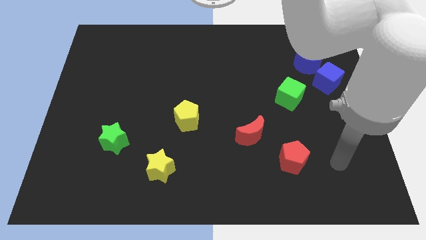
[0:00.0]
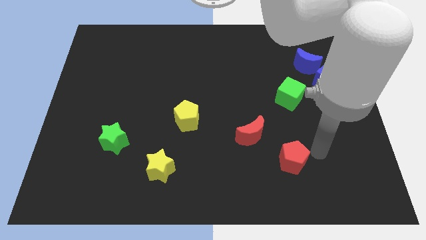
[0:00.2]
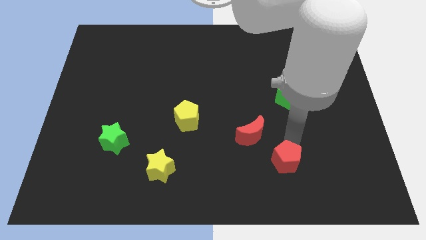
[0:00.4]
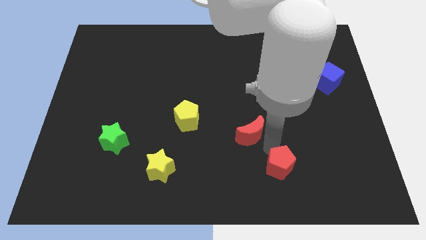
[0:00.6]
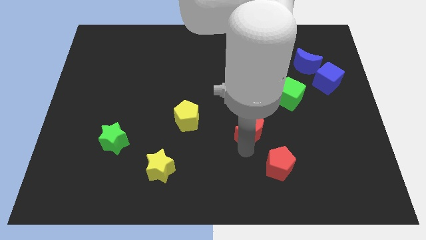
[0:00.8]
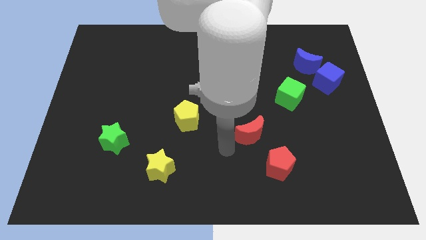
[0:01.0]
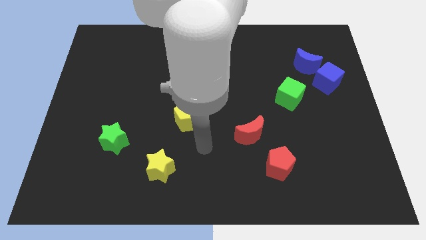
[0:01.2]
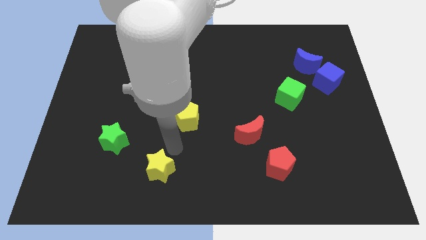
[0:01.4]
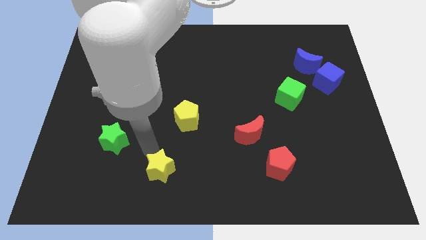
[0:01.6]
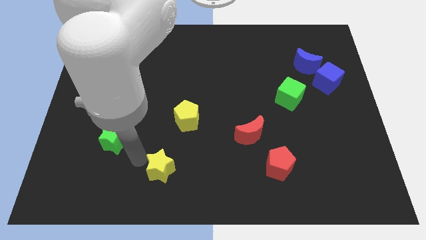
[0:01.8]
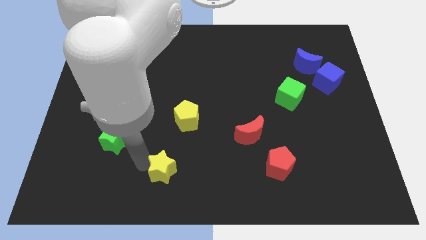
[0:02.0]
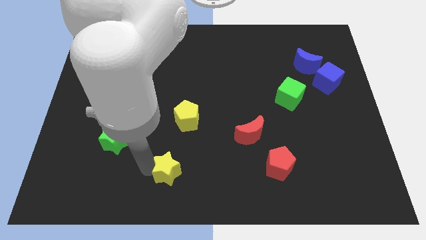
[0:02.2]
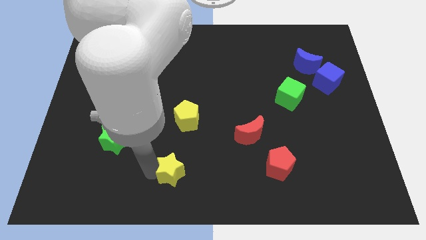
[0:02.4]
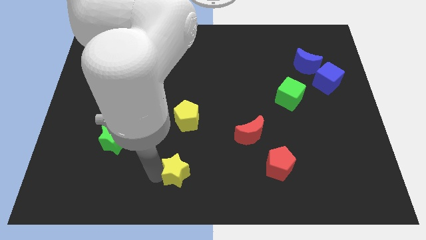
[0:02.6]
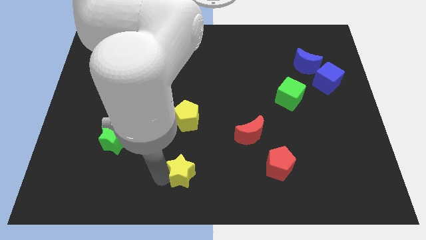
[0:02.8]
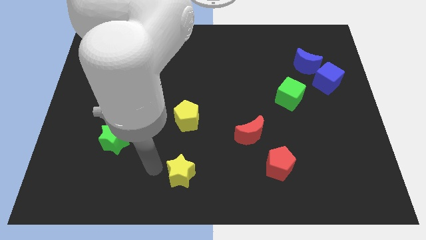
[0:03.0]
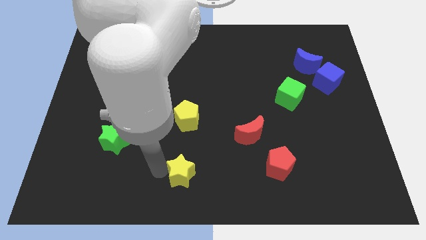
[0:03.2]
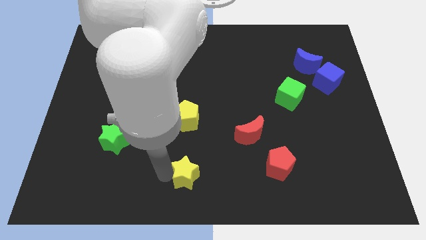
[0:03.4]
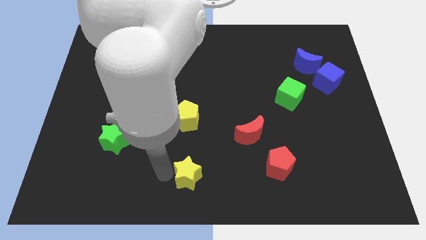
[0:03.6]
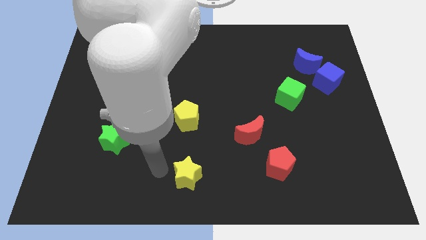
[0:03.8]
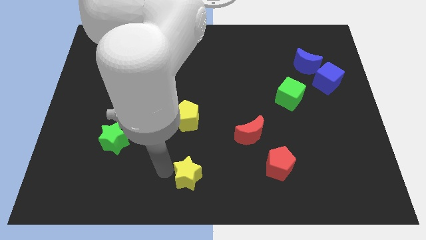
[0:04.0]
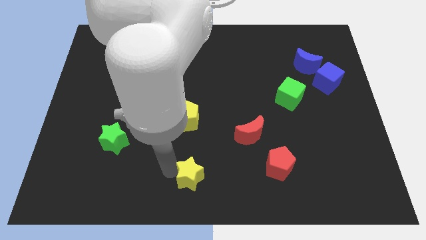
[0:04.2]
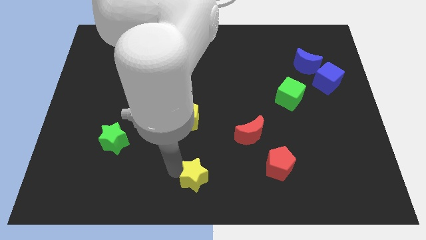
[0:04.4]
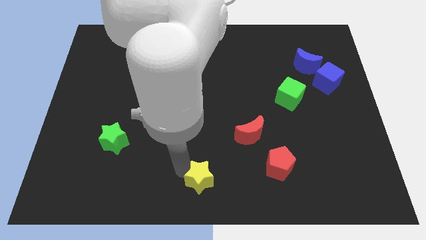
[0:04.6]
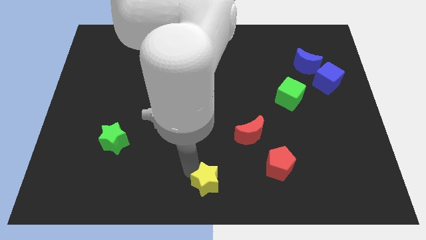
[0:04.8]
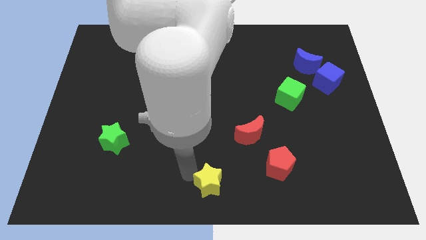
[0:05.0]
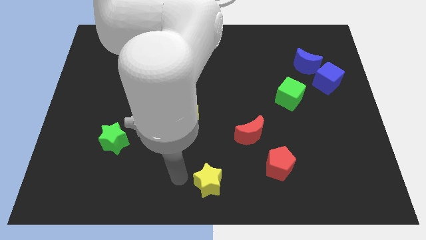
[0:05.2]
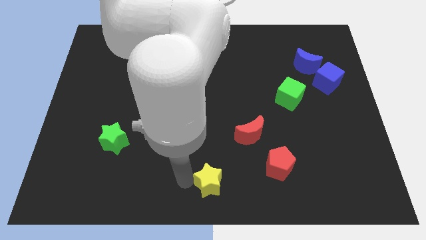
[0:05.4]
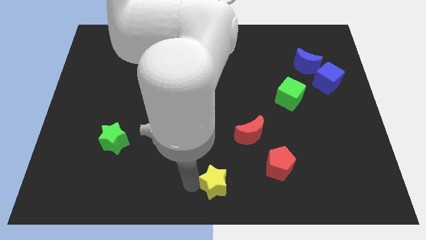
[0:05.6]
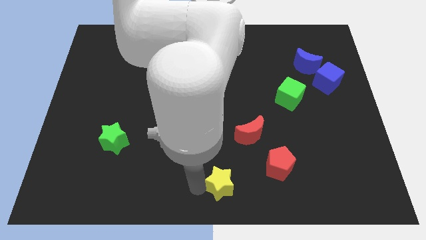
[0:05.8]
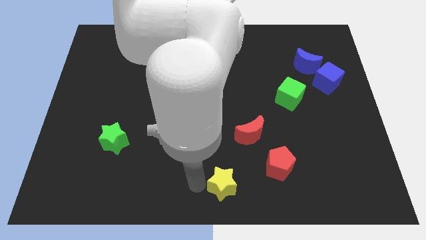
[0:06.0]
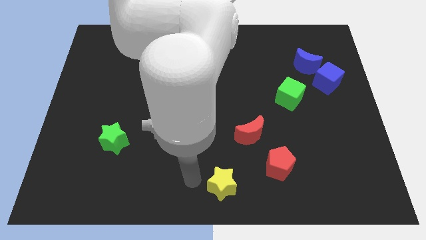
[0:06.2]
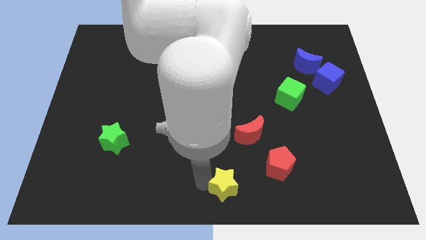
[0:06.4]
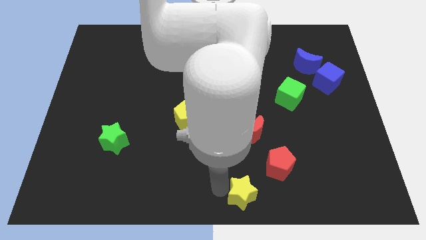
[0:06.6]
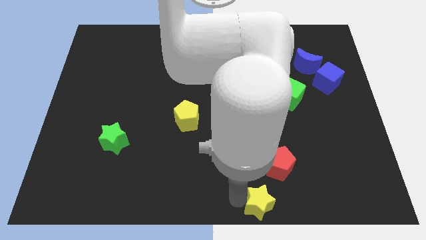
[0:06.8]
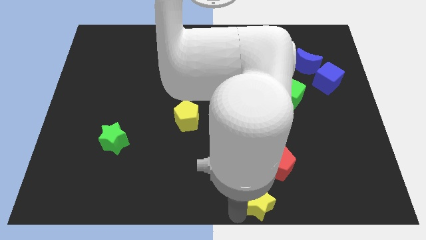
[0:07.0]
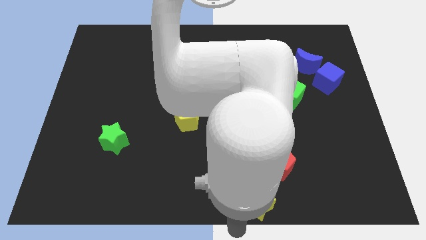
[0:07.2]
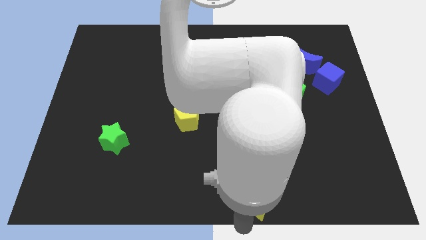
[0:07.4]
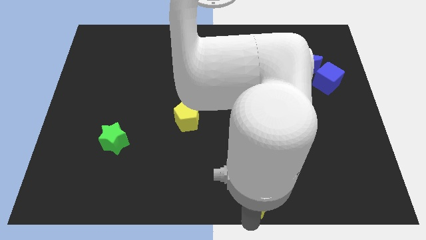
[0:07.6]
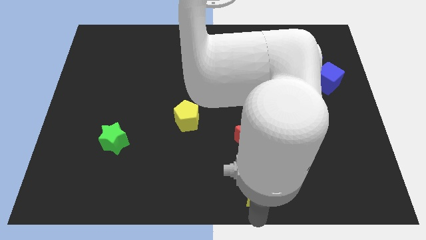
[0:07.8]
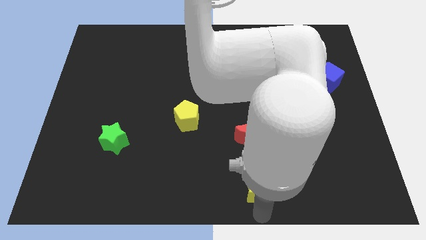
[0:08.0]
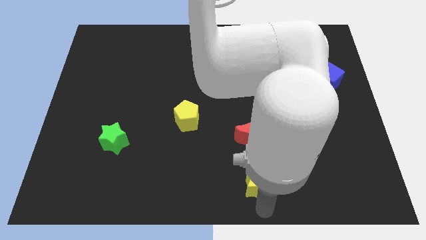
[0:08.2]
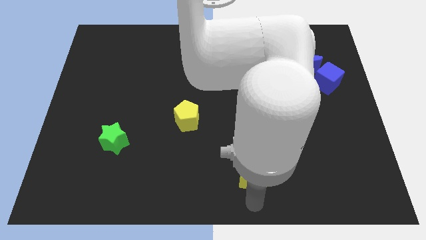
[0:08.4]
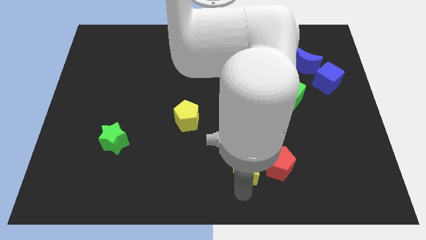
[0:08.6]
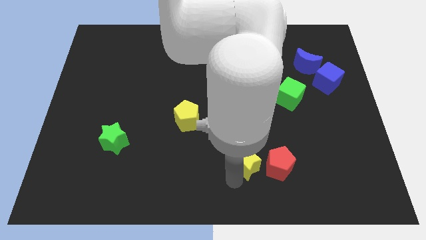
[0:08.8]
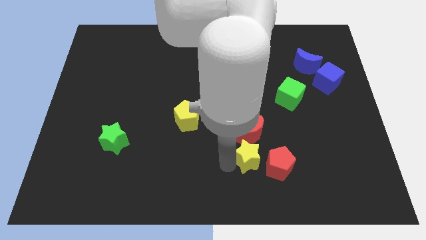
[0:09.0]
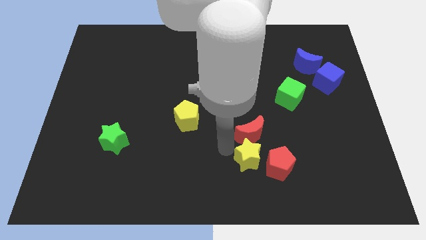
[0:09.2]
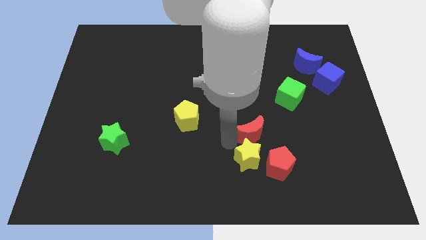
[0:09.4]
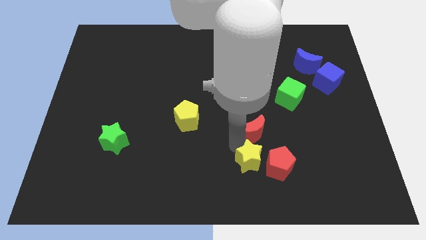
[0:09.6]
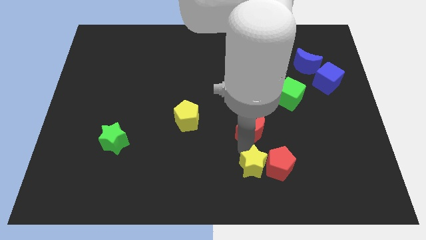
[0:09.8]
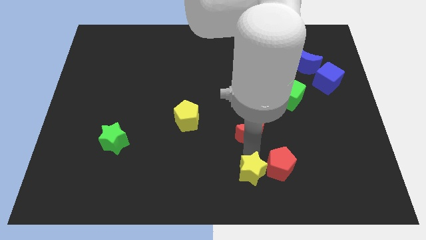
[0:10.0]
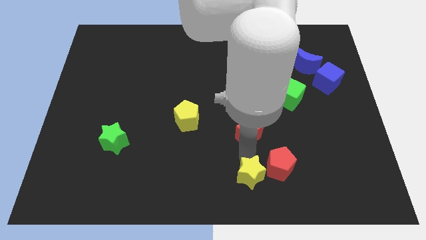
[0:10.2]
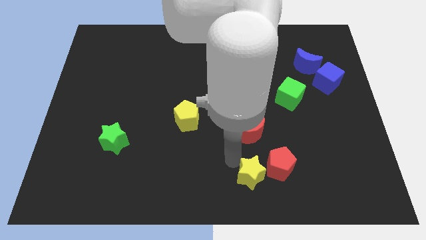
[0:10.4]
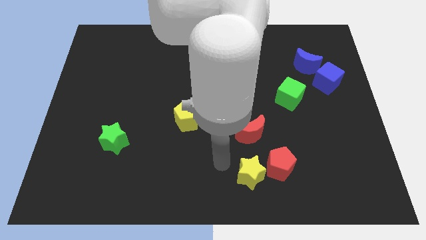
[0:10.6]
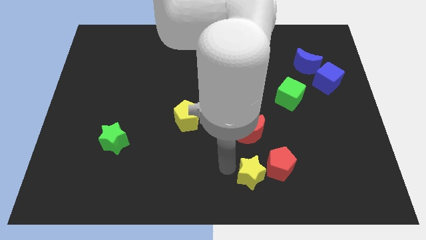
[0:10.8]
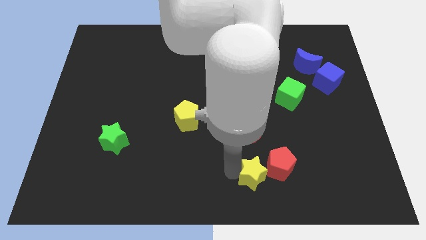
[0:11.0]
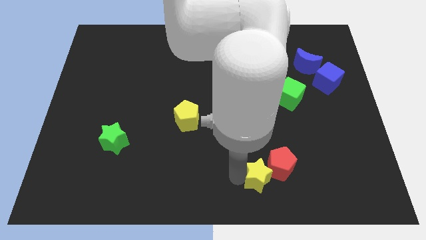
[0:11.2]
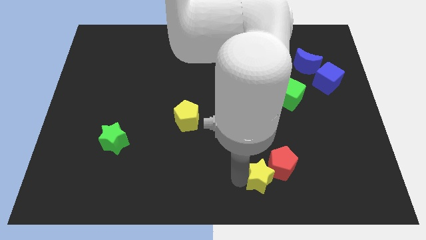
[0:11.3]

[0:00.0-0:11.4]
slide the yellow star to the right

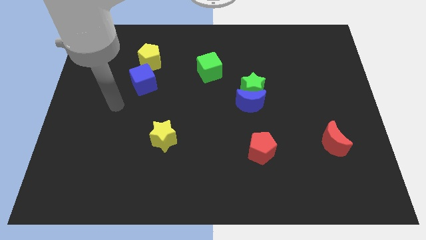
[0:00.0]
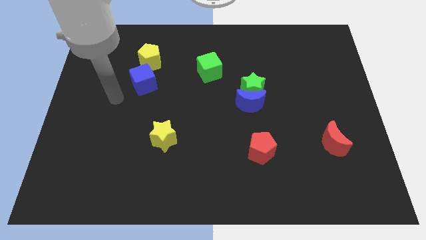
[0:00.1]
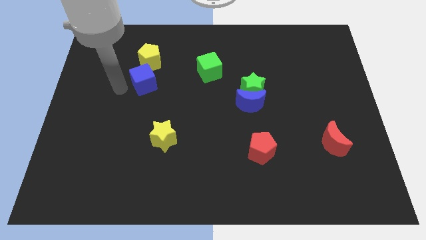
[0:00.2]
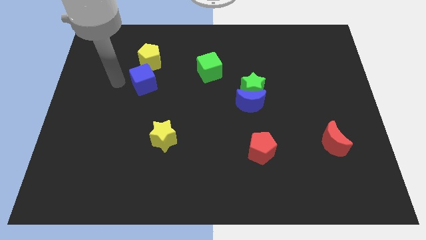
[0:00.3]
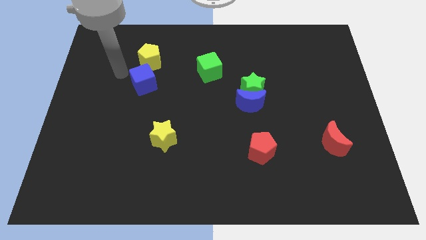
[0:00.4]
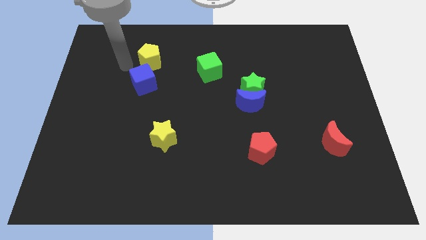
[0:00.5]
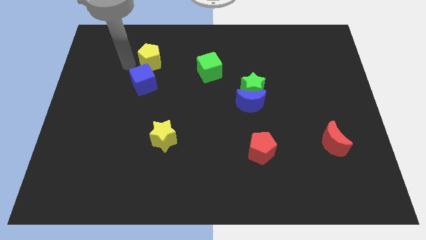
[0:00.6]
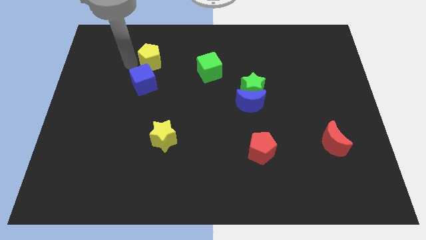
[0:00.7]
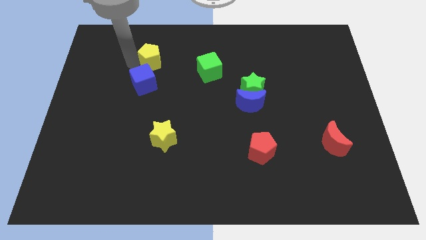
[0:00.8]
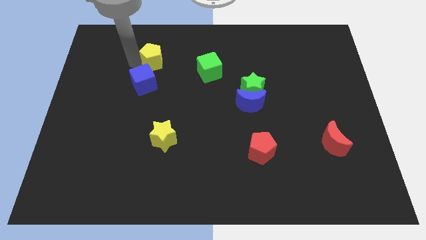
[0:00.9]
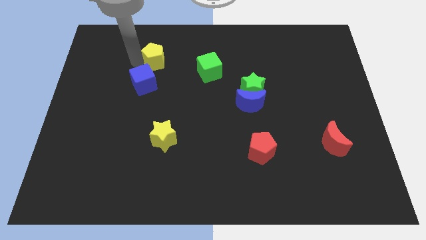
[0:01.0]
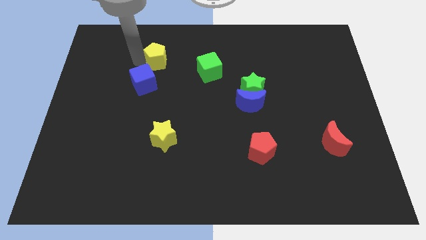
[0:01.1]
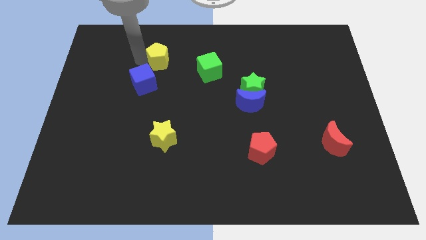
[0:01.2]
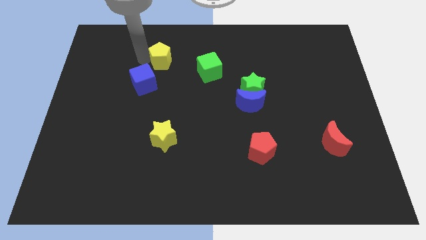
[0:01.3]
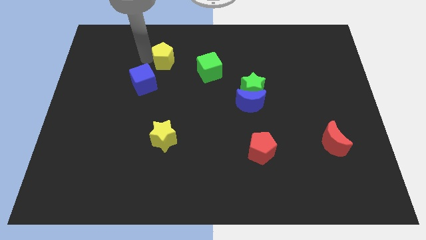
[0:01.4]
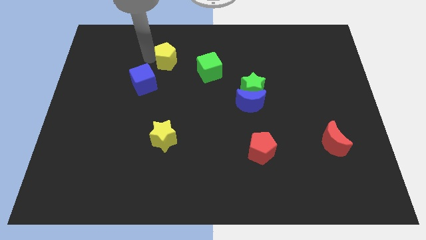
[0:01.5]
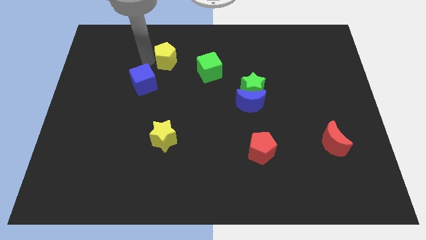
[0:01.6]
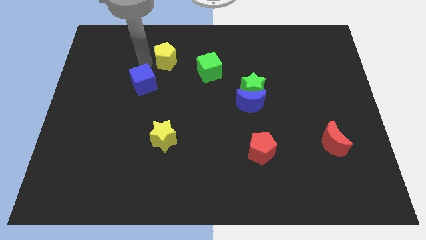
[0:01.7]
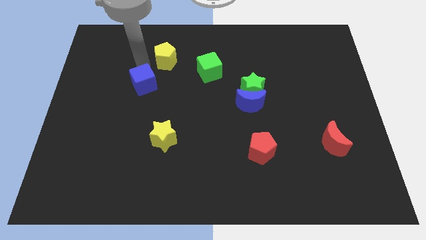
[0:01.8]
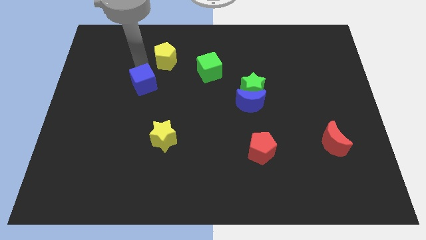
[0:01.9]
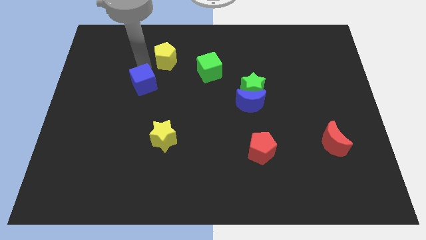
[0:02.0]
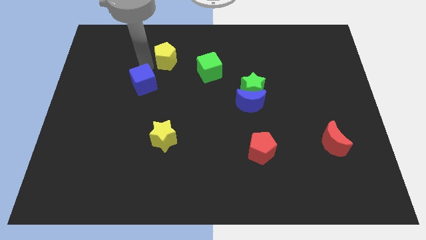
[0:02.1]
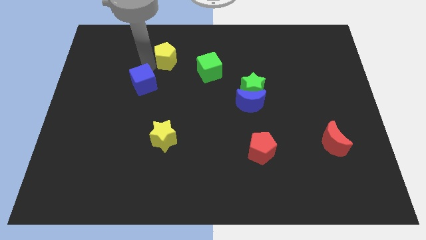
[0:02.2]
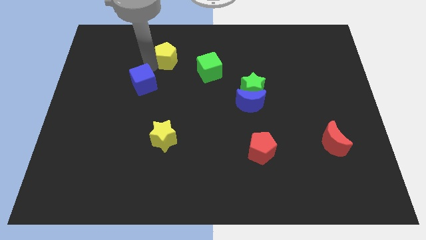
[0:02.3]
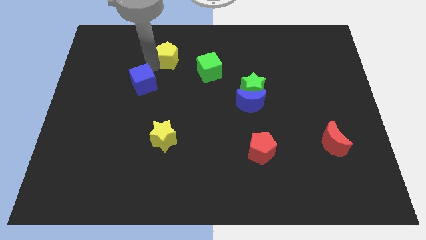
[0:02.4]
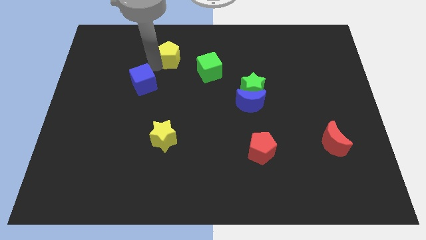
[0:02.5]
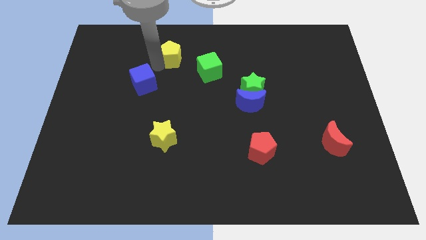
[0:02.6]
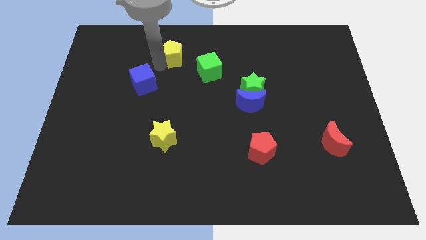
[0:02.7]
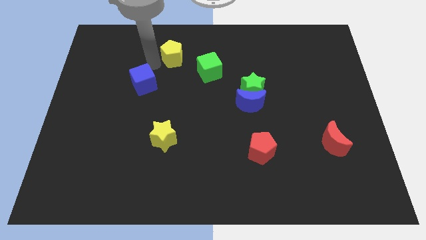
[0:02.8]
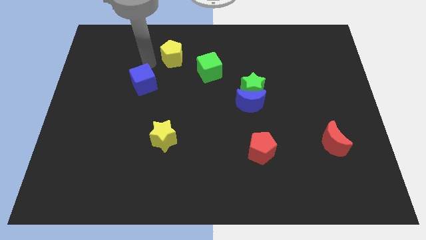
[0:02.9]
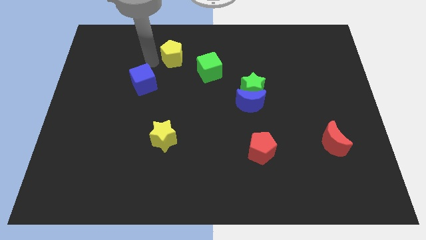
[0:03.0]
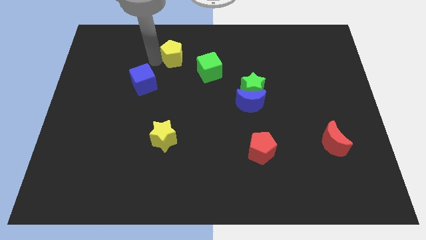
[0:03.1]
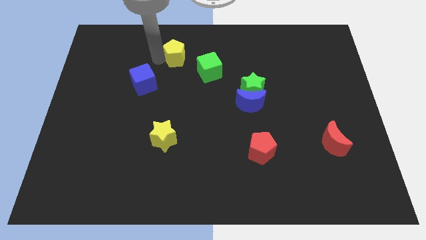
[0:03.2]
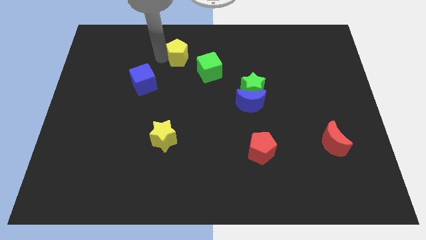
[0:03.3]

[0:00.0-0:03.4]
move the yellow pentagon to the right slightly
